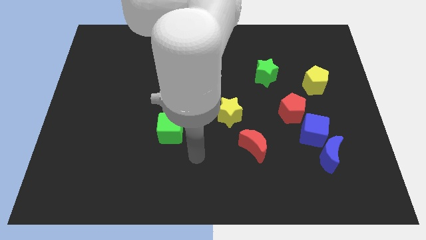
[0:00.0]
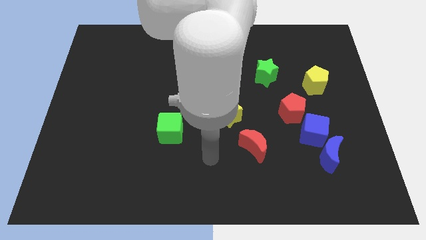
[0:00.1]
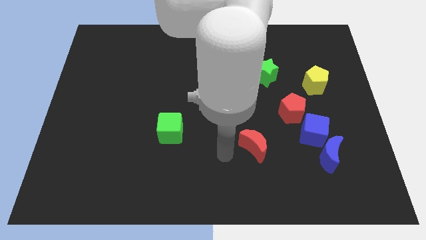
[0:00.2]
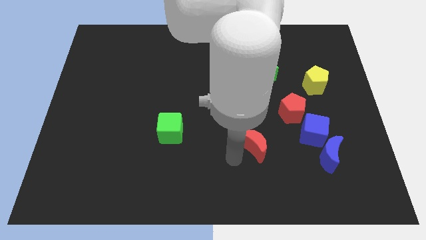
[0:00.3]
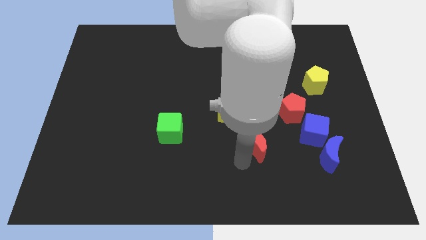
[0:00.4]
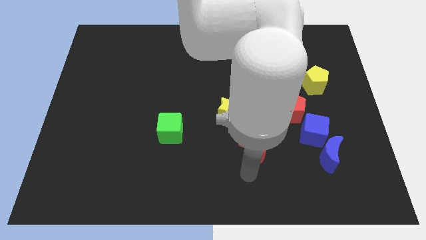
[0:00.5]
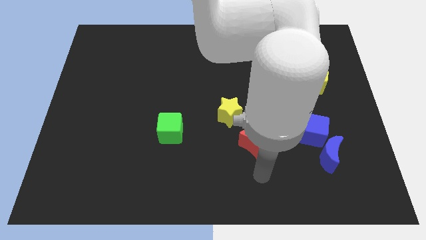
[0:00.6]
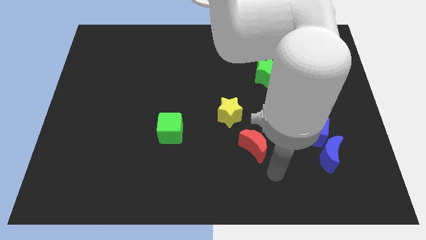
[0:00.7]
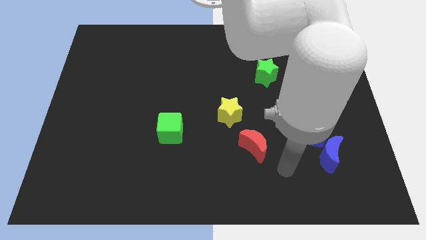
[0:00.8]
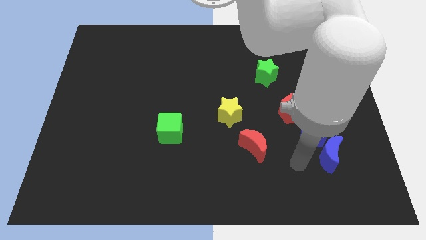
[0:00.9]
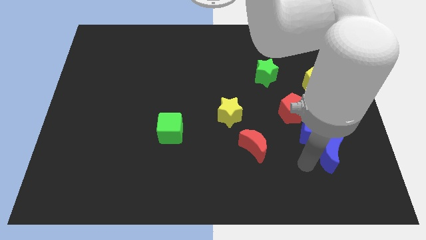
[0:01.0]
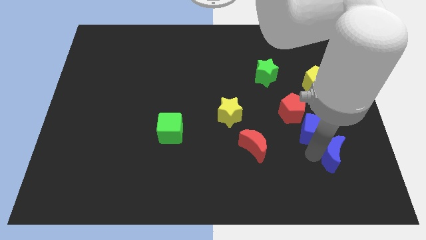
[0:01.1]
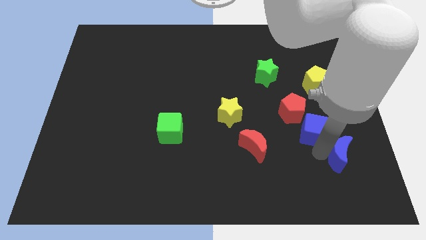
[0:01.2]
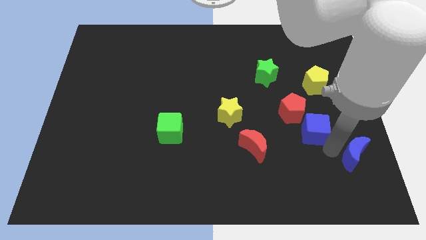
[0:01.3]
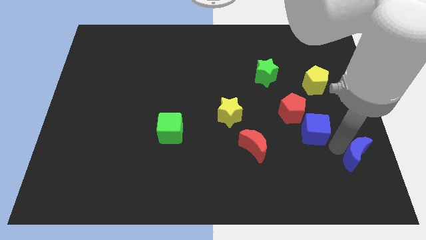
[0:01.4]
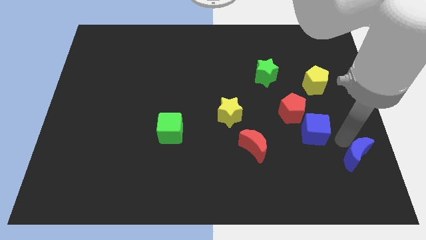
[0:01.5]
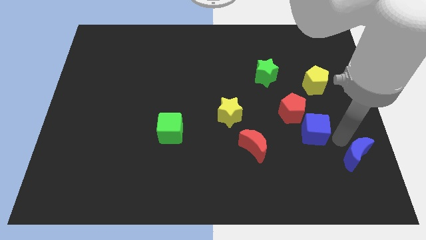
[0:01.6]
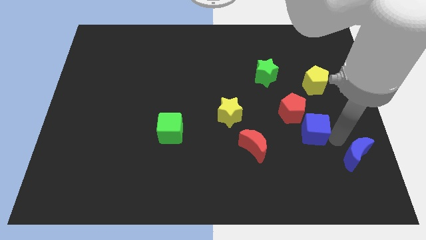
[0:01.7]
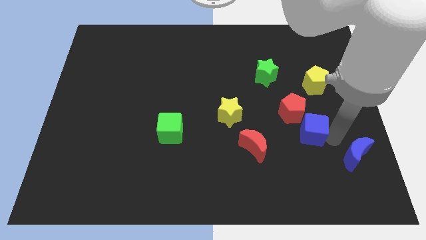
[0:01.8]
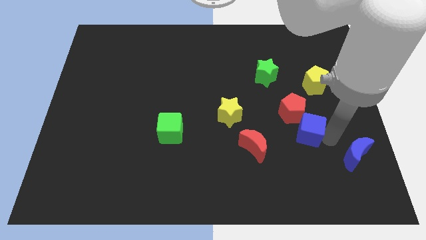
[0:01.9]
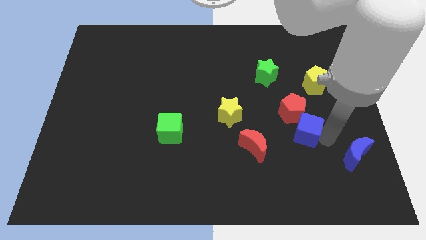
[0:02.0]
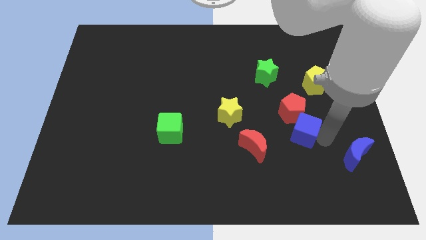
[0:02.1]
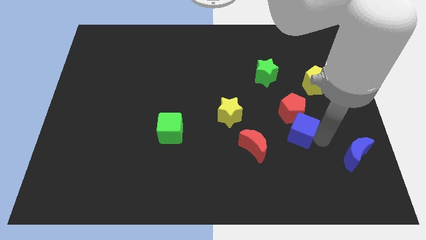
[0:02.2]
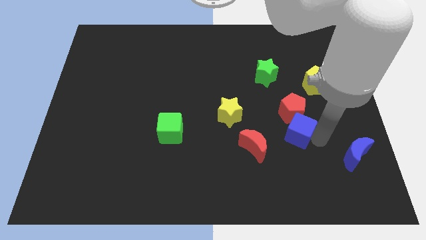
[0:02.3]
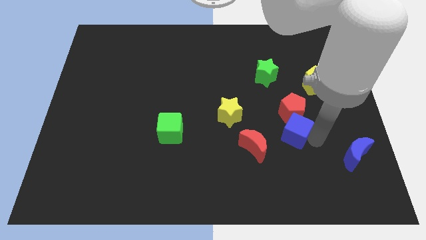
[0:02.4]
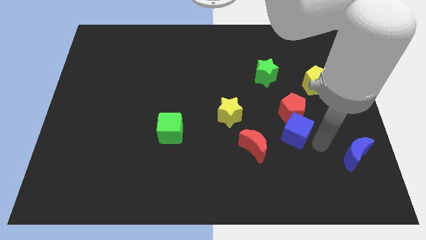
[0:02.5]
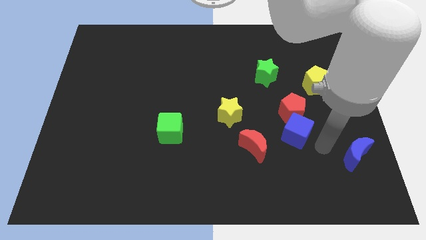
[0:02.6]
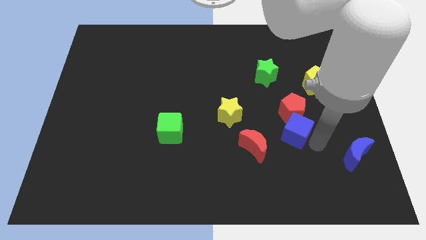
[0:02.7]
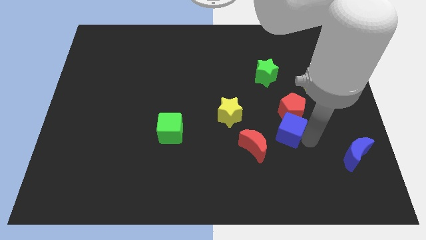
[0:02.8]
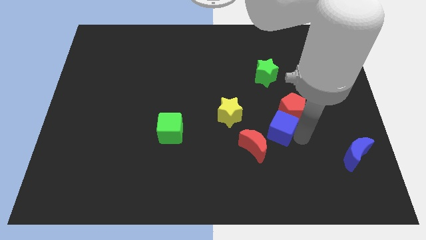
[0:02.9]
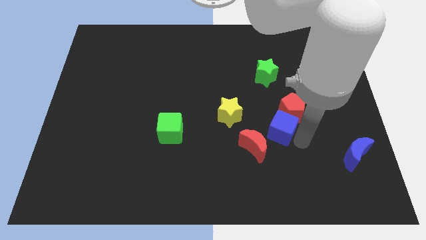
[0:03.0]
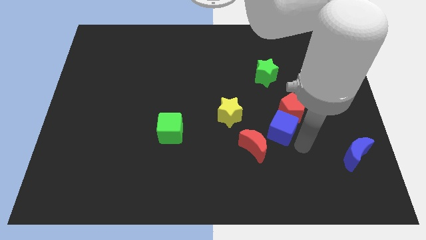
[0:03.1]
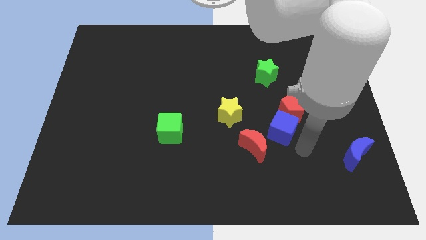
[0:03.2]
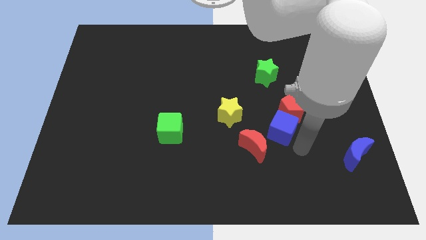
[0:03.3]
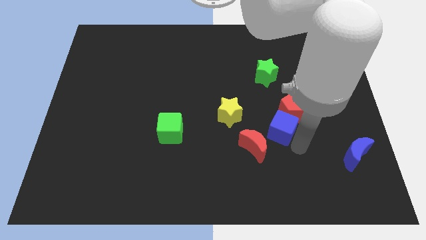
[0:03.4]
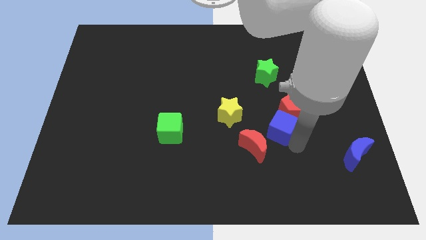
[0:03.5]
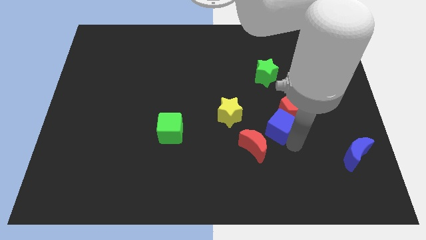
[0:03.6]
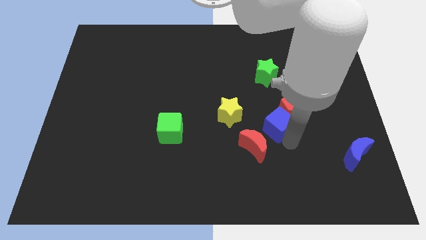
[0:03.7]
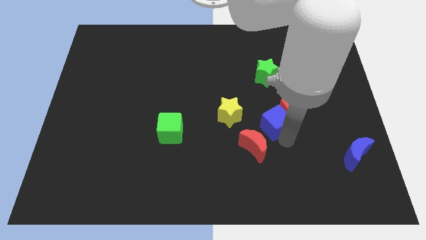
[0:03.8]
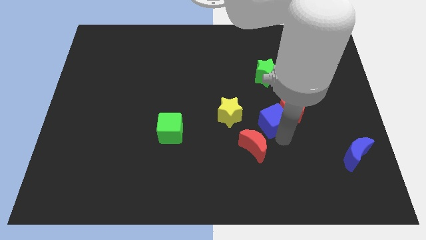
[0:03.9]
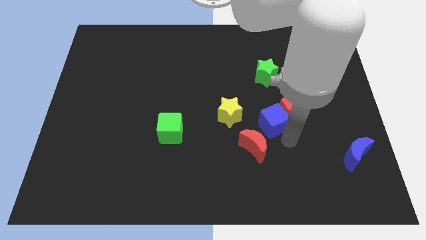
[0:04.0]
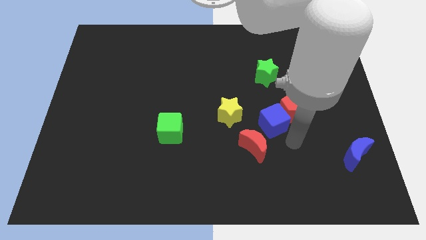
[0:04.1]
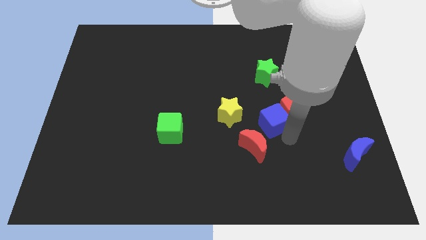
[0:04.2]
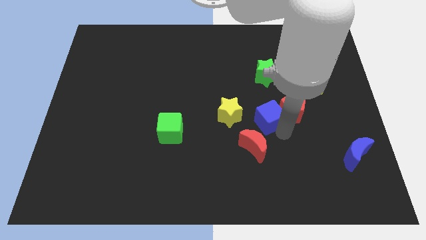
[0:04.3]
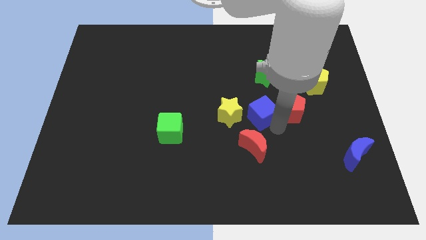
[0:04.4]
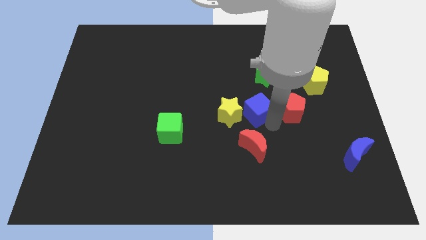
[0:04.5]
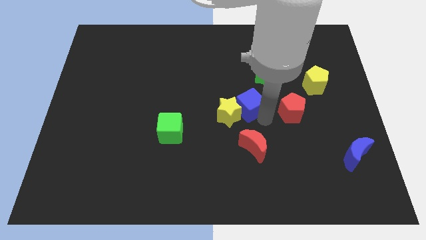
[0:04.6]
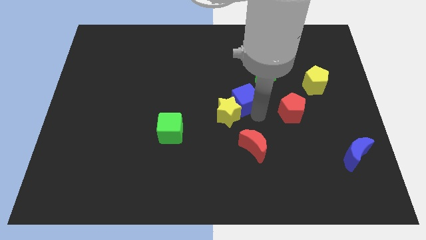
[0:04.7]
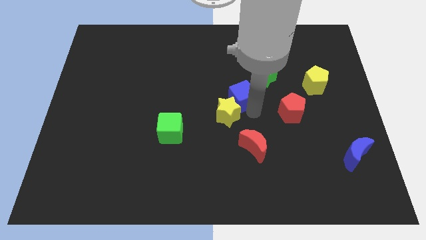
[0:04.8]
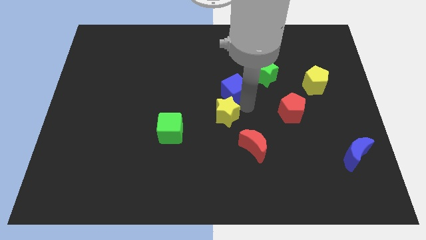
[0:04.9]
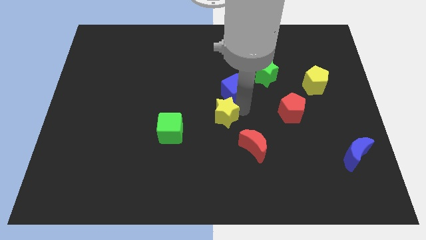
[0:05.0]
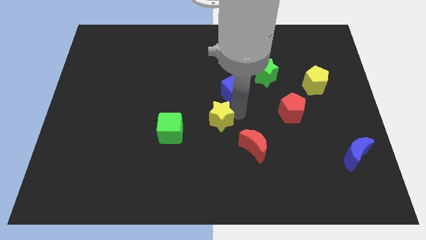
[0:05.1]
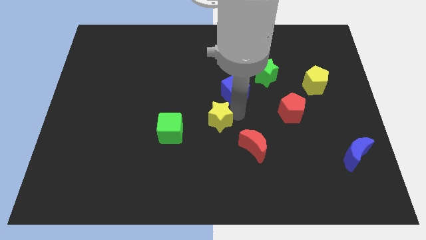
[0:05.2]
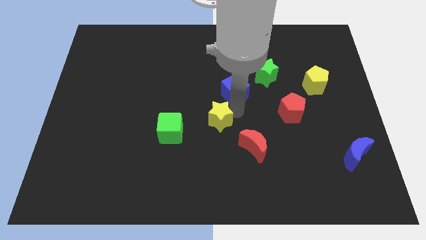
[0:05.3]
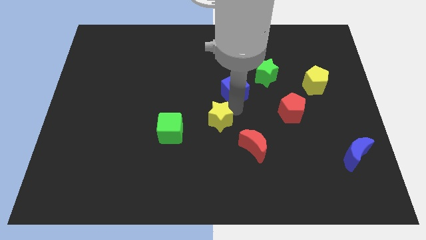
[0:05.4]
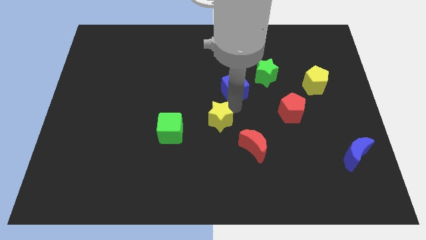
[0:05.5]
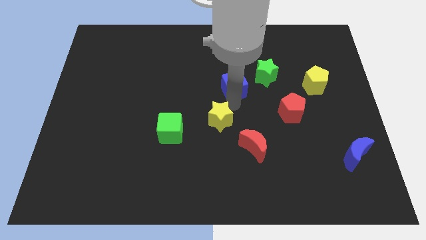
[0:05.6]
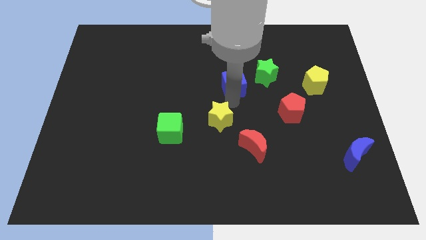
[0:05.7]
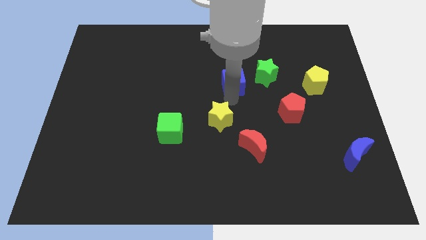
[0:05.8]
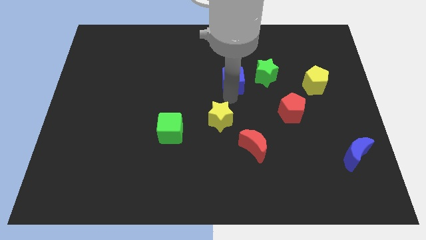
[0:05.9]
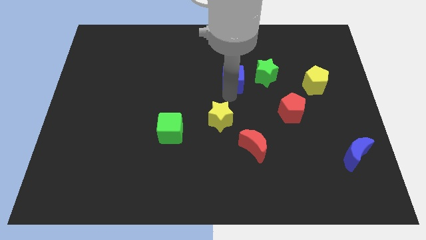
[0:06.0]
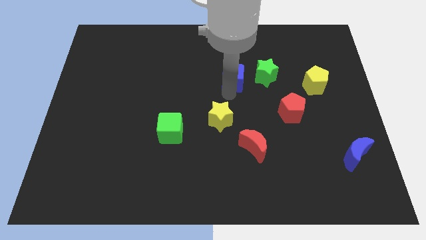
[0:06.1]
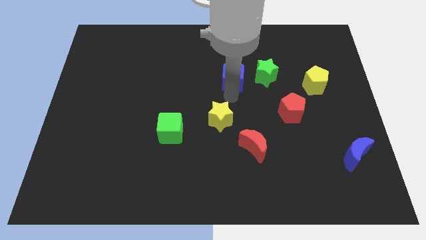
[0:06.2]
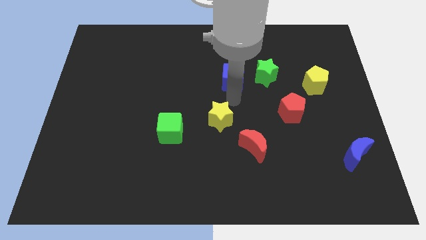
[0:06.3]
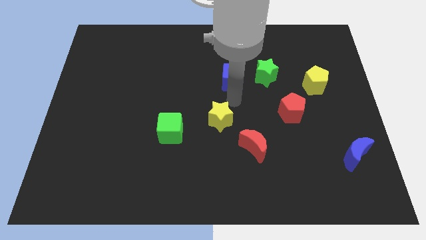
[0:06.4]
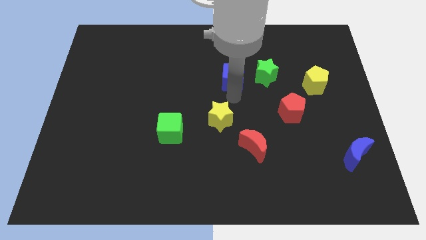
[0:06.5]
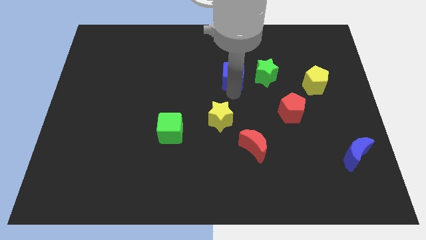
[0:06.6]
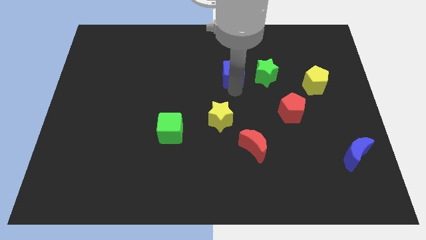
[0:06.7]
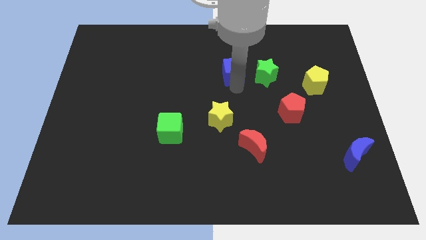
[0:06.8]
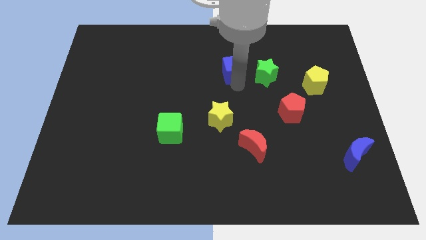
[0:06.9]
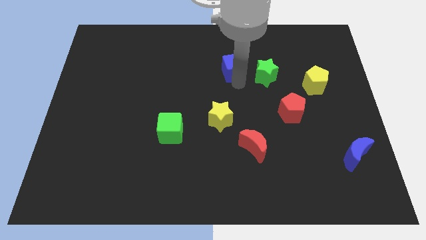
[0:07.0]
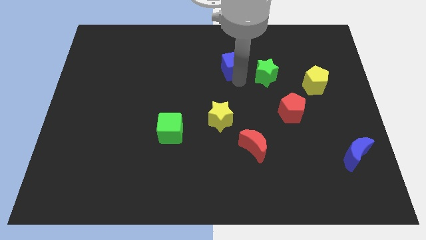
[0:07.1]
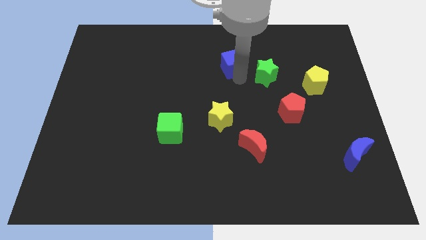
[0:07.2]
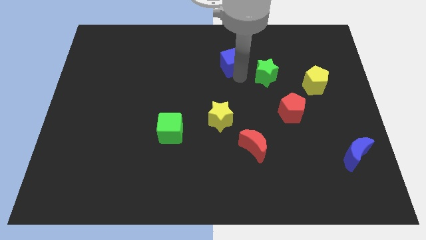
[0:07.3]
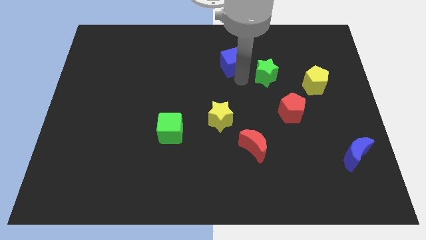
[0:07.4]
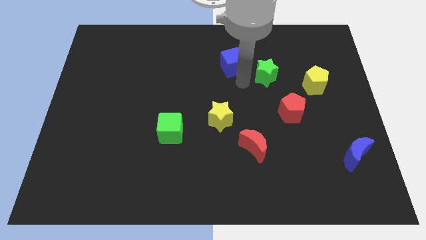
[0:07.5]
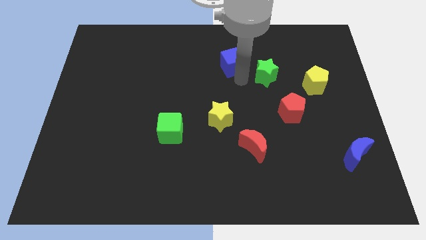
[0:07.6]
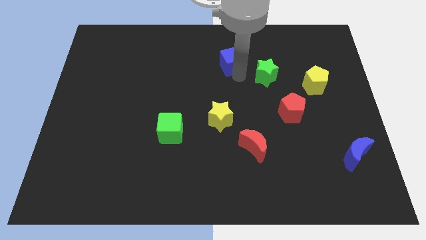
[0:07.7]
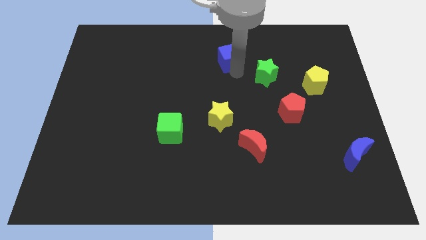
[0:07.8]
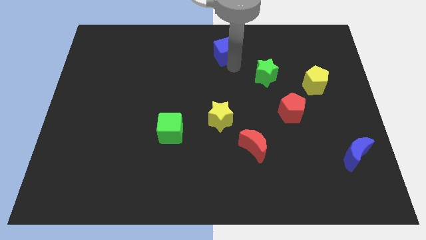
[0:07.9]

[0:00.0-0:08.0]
move the blue cube to the top
